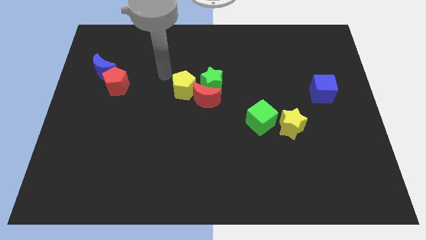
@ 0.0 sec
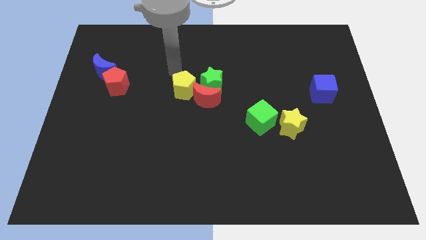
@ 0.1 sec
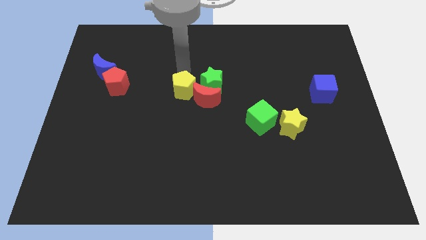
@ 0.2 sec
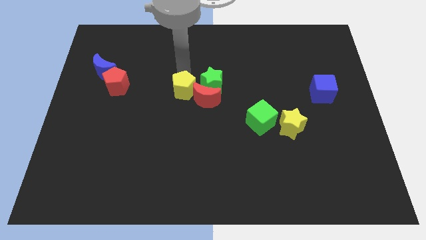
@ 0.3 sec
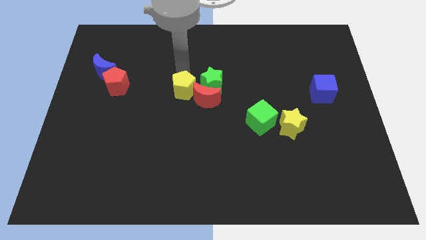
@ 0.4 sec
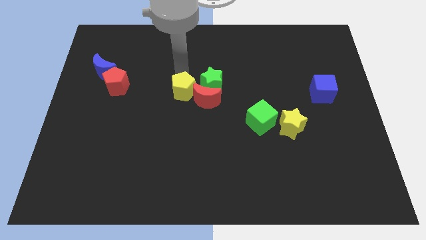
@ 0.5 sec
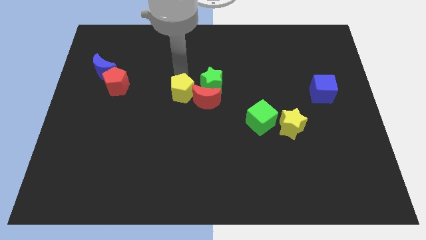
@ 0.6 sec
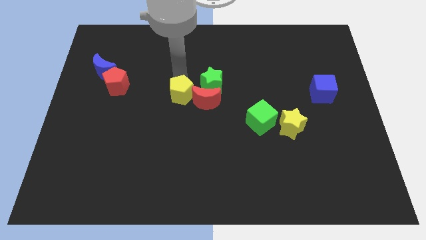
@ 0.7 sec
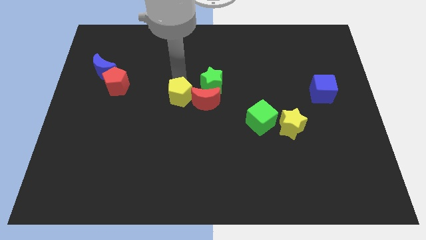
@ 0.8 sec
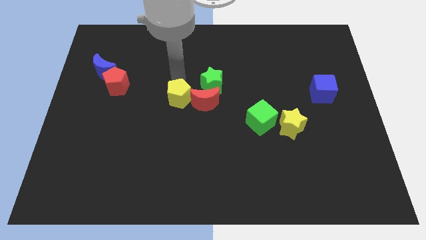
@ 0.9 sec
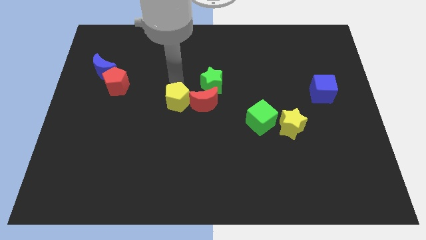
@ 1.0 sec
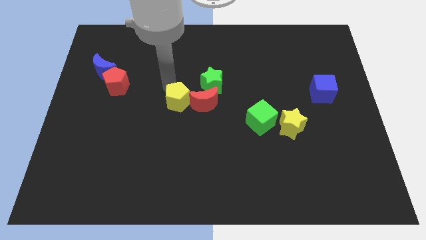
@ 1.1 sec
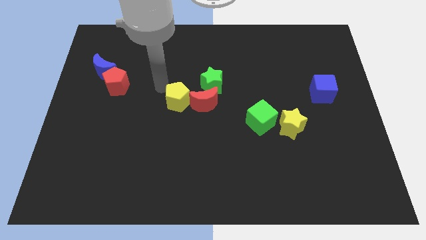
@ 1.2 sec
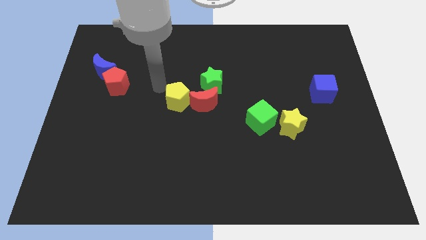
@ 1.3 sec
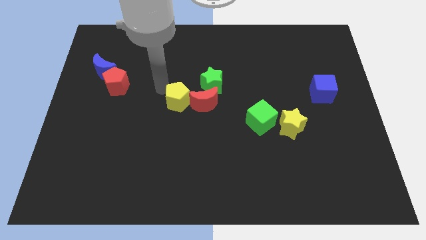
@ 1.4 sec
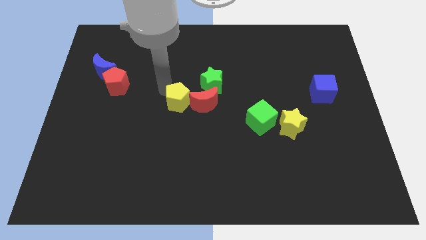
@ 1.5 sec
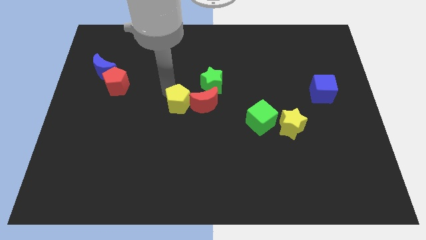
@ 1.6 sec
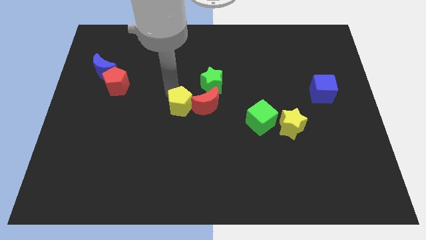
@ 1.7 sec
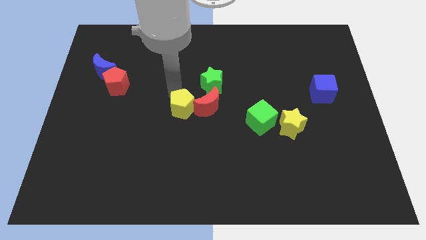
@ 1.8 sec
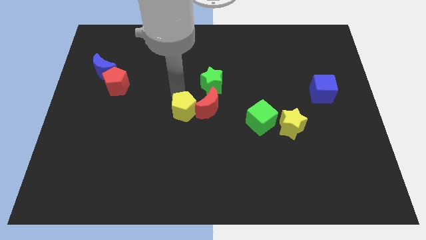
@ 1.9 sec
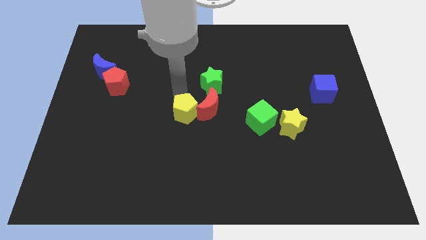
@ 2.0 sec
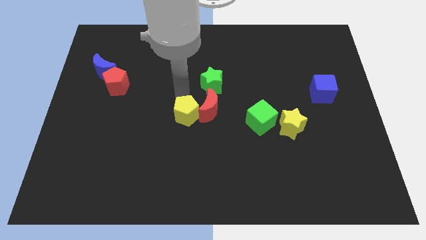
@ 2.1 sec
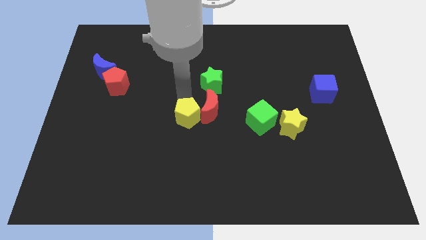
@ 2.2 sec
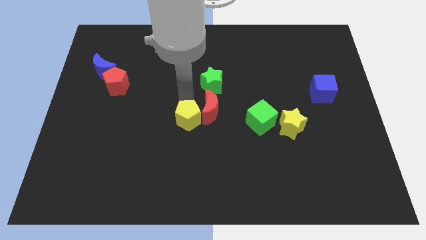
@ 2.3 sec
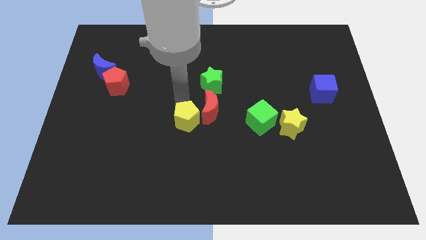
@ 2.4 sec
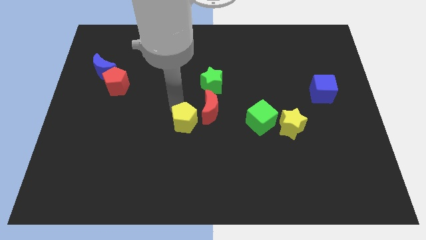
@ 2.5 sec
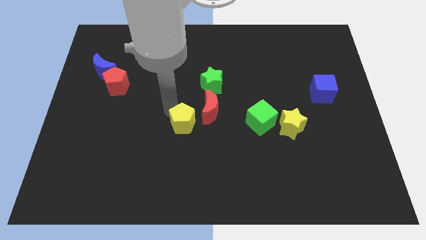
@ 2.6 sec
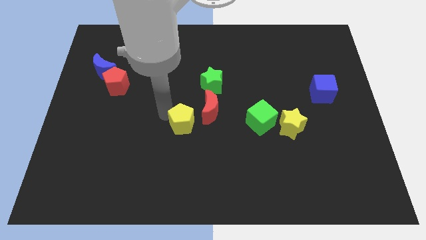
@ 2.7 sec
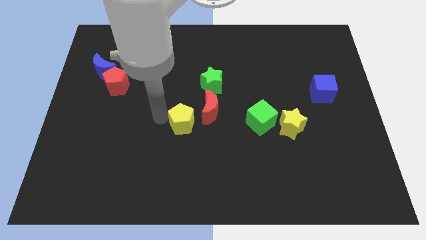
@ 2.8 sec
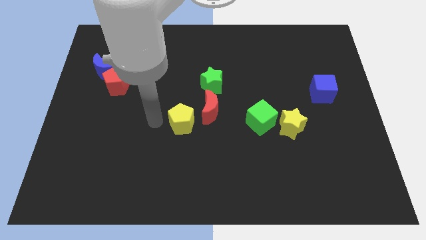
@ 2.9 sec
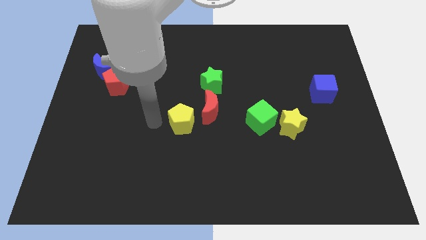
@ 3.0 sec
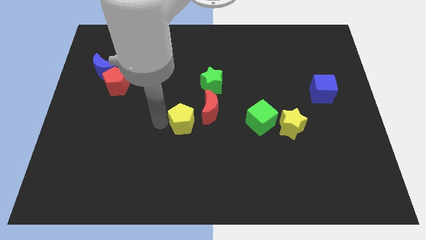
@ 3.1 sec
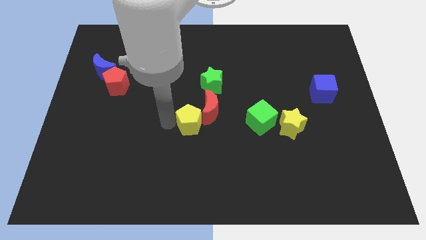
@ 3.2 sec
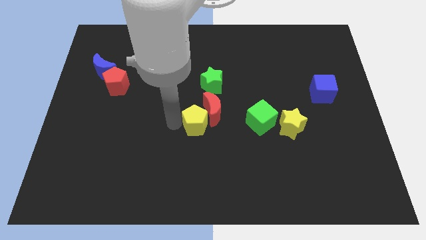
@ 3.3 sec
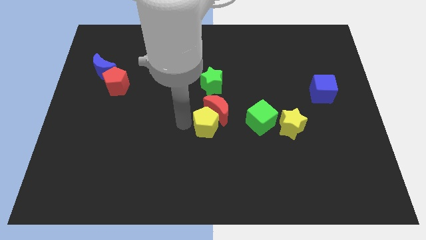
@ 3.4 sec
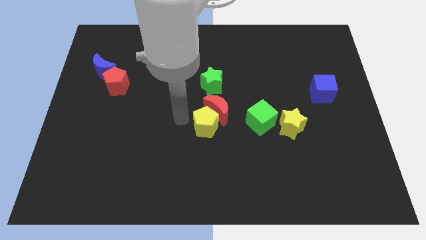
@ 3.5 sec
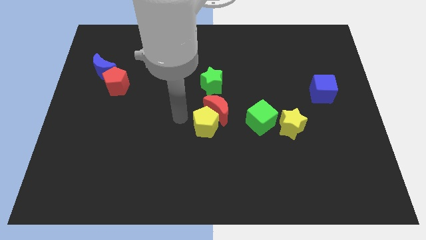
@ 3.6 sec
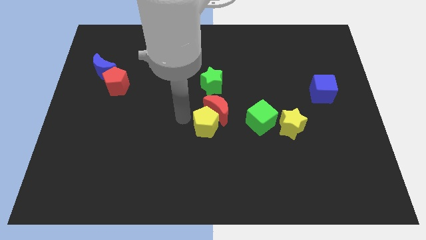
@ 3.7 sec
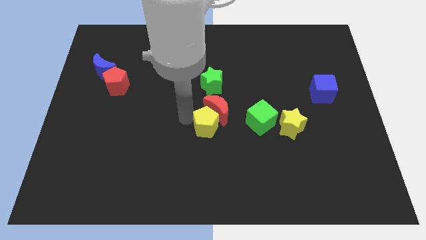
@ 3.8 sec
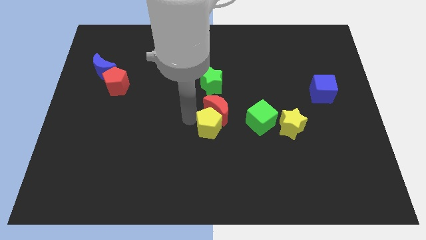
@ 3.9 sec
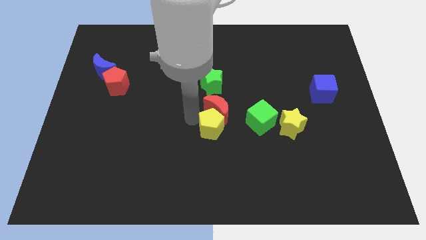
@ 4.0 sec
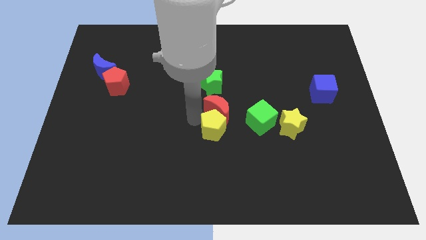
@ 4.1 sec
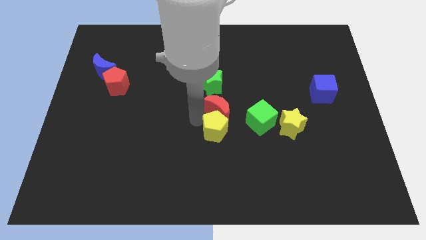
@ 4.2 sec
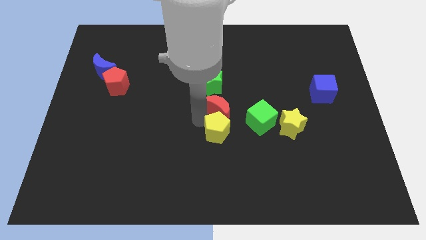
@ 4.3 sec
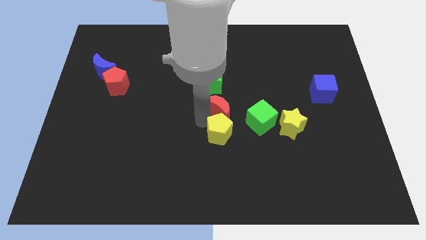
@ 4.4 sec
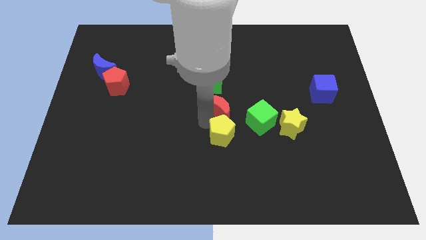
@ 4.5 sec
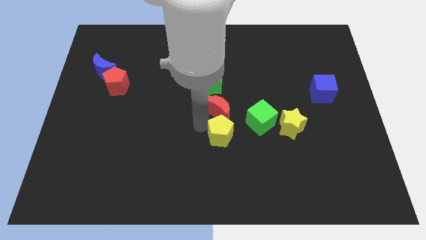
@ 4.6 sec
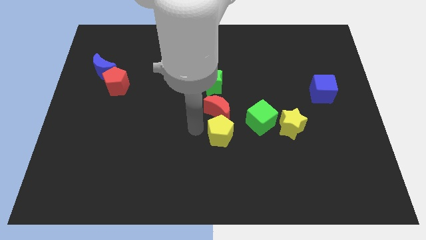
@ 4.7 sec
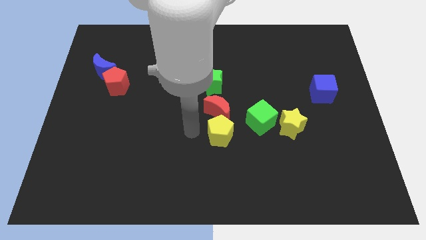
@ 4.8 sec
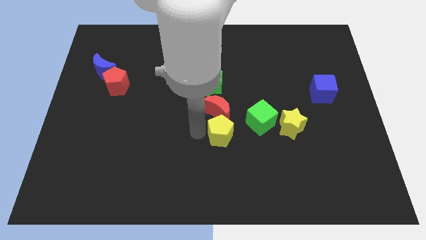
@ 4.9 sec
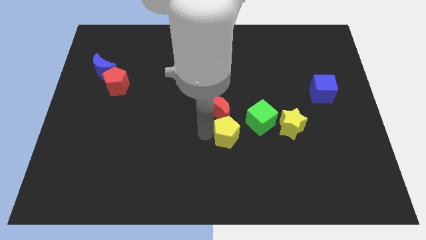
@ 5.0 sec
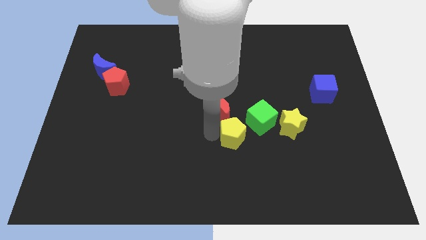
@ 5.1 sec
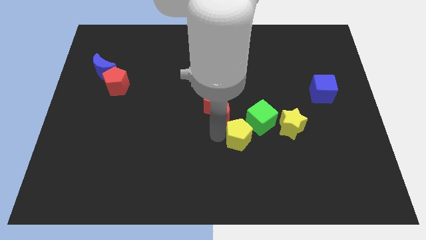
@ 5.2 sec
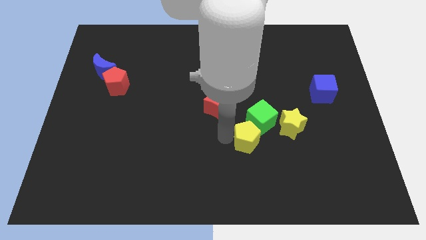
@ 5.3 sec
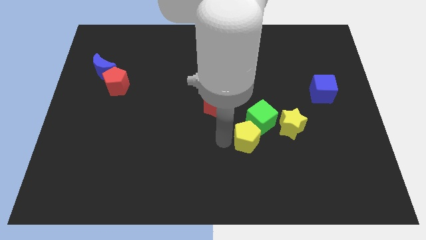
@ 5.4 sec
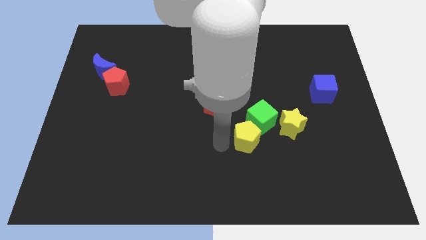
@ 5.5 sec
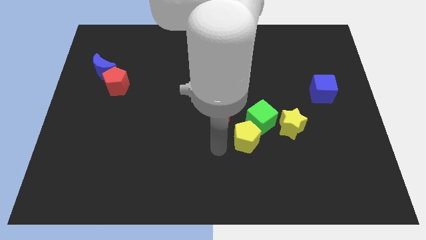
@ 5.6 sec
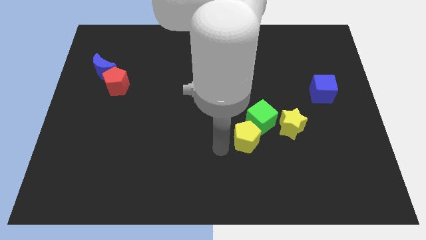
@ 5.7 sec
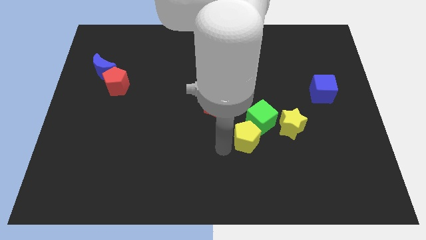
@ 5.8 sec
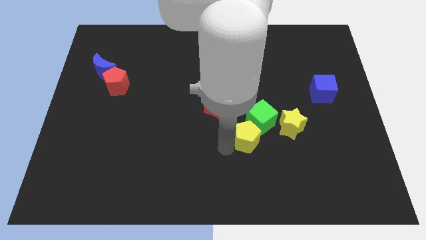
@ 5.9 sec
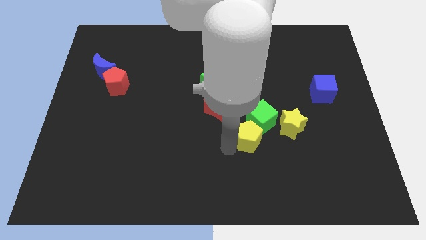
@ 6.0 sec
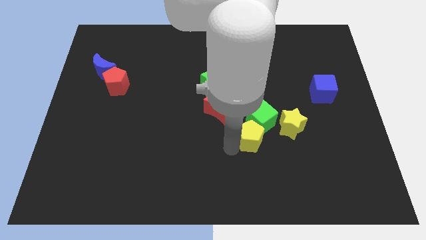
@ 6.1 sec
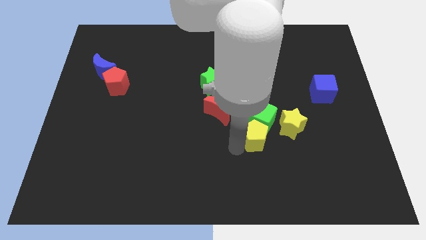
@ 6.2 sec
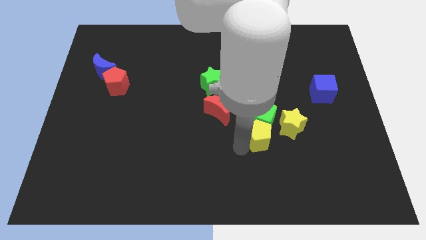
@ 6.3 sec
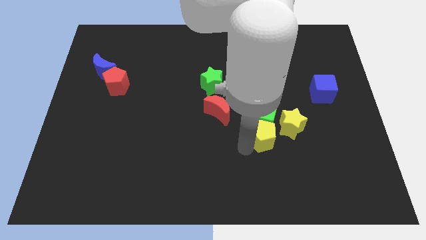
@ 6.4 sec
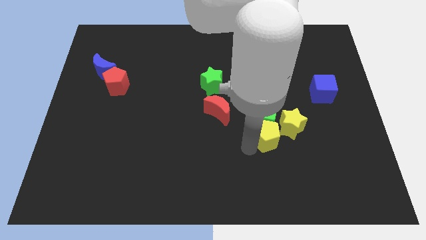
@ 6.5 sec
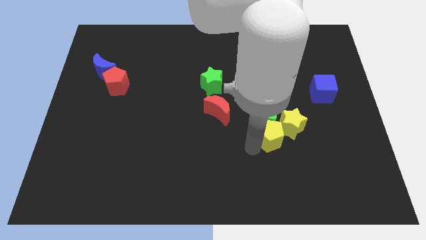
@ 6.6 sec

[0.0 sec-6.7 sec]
move the yellow pentagon towards the yellow star

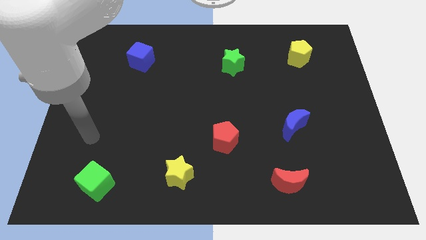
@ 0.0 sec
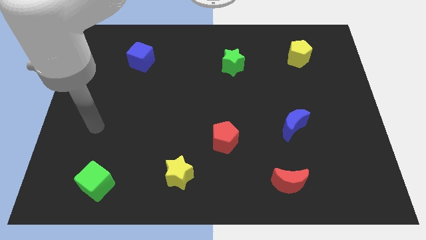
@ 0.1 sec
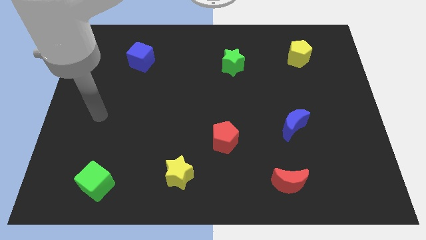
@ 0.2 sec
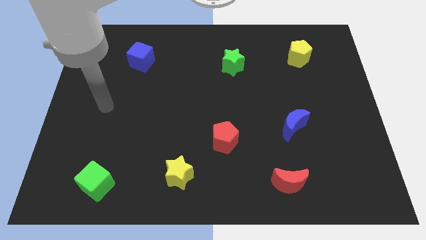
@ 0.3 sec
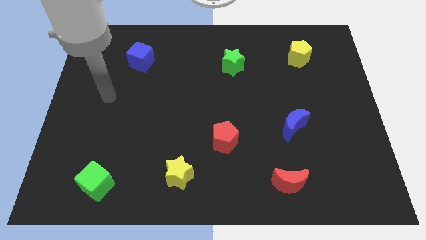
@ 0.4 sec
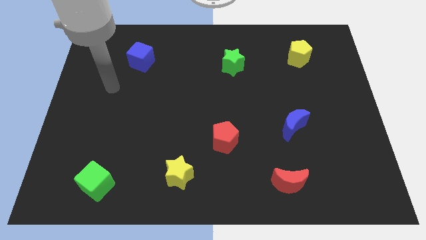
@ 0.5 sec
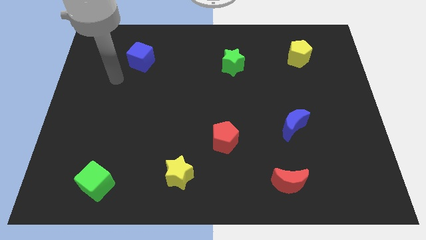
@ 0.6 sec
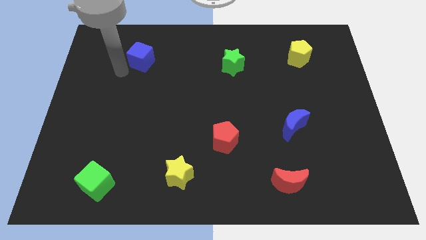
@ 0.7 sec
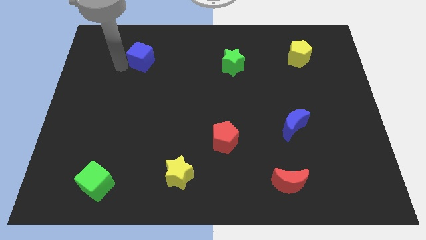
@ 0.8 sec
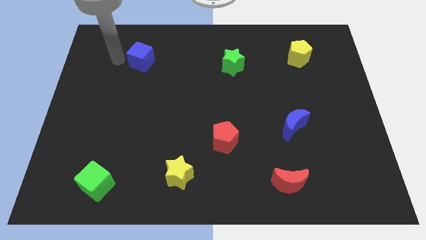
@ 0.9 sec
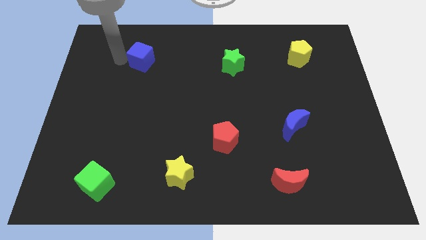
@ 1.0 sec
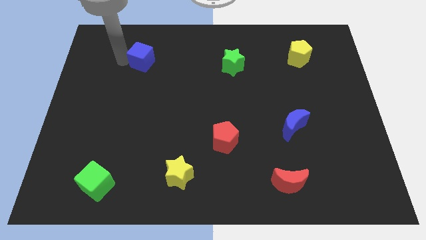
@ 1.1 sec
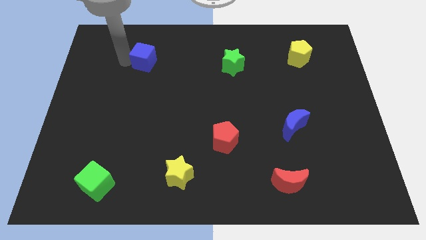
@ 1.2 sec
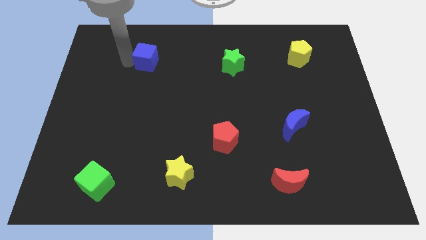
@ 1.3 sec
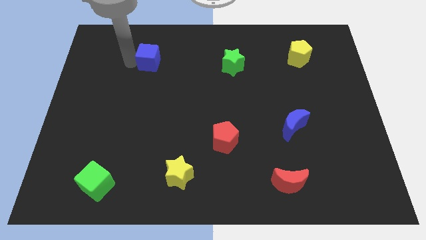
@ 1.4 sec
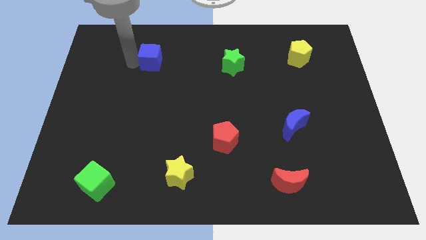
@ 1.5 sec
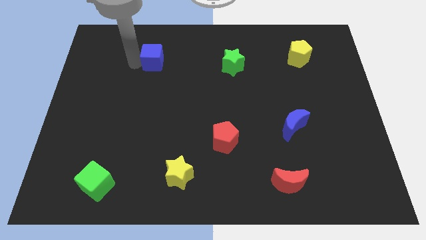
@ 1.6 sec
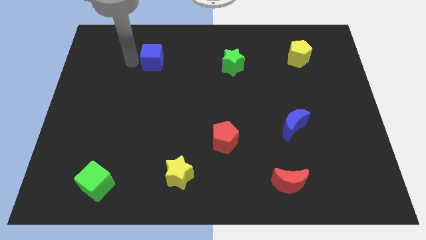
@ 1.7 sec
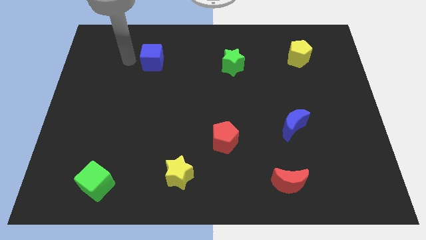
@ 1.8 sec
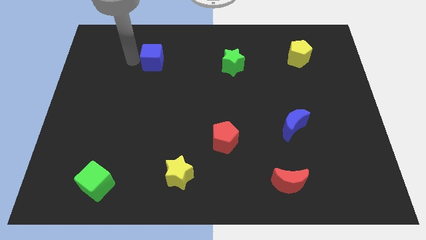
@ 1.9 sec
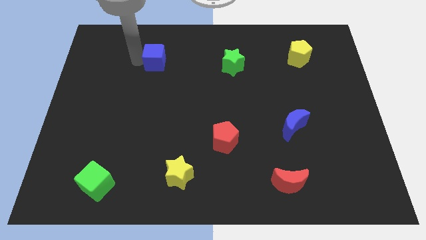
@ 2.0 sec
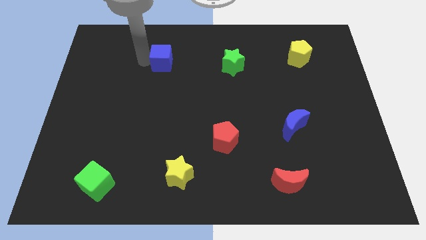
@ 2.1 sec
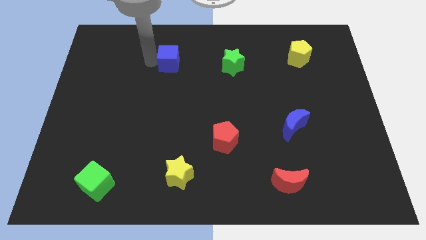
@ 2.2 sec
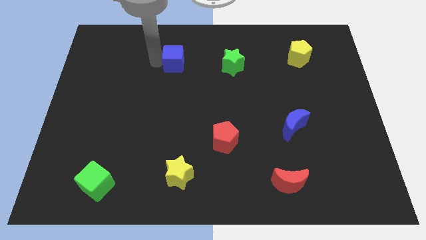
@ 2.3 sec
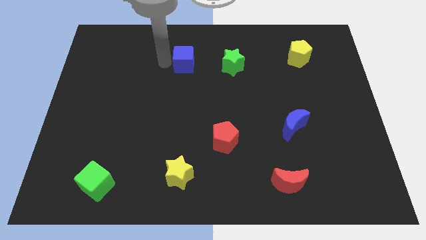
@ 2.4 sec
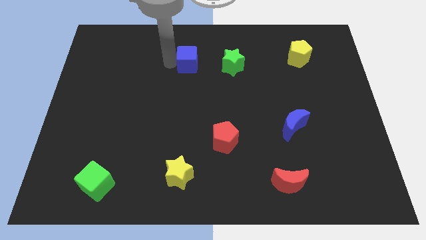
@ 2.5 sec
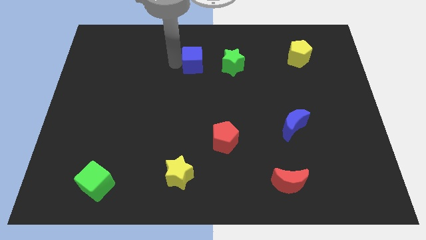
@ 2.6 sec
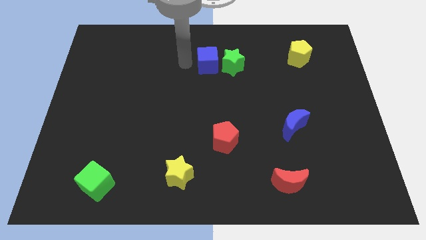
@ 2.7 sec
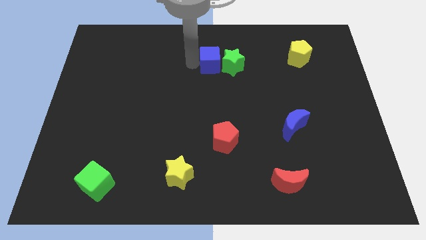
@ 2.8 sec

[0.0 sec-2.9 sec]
push the blue cube close to the green star
